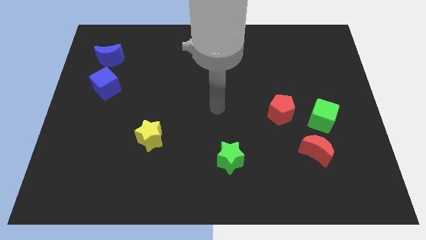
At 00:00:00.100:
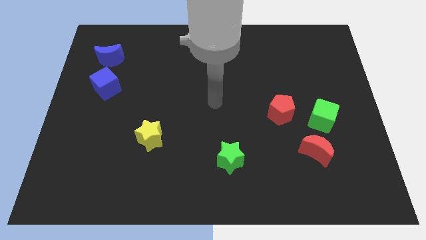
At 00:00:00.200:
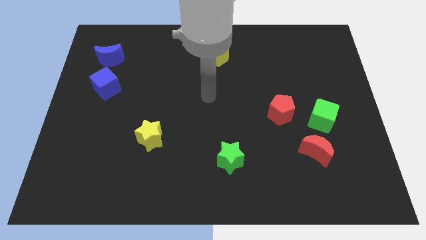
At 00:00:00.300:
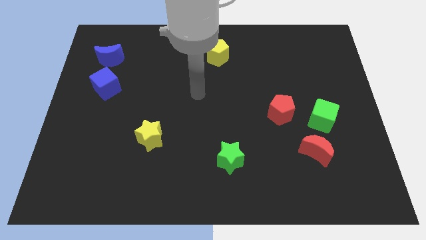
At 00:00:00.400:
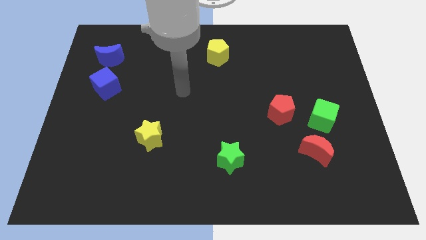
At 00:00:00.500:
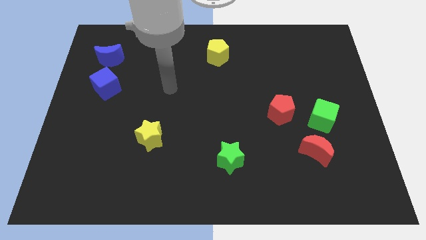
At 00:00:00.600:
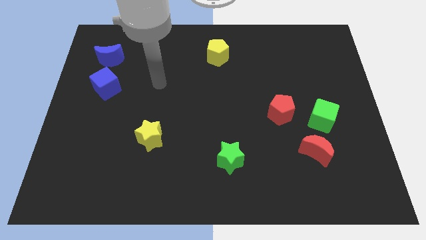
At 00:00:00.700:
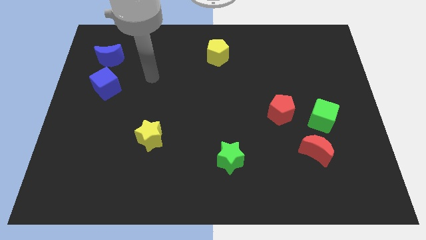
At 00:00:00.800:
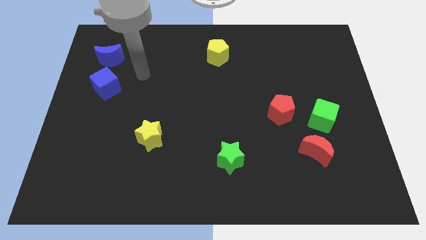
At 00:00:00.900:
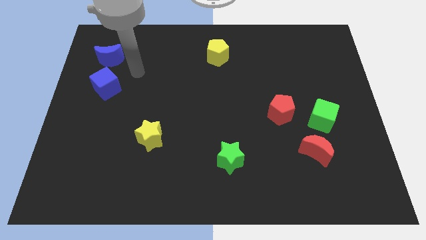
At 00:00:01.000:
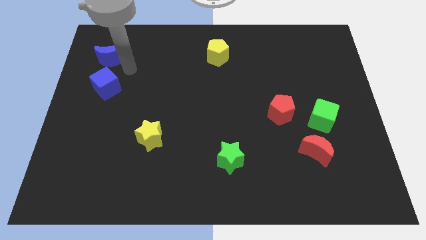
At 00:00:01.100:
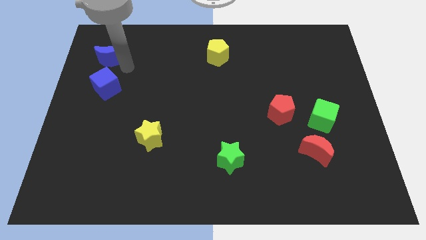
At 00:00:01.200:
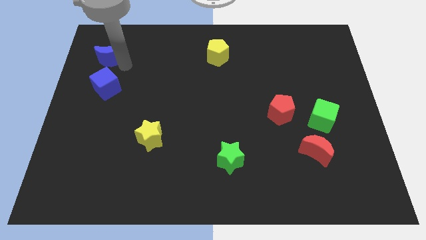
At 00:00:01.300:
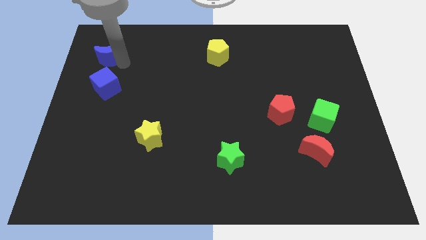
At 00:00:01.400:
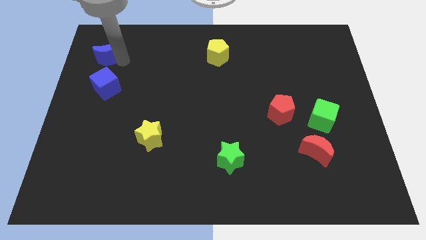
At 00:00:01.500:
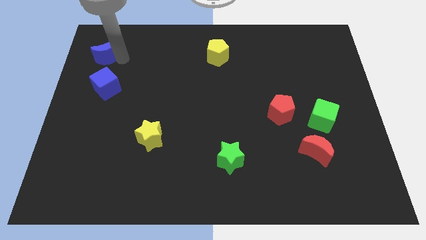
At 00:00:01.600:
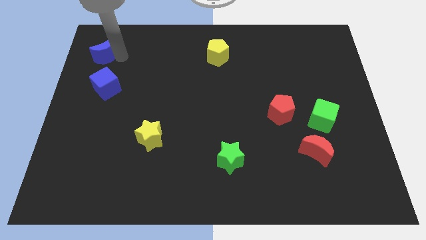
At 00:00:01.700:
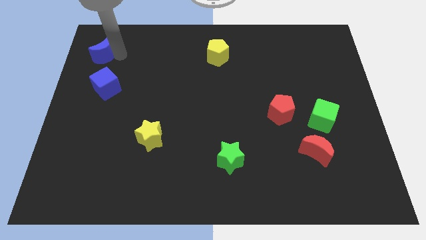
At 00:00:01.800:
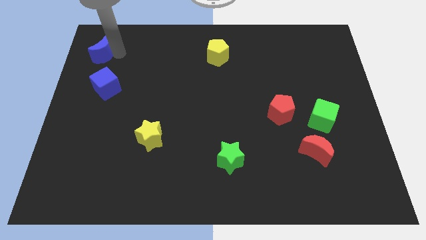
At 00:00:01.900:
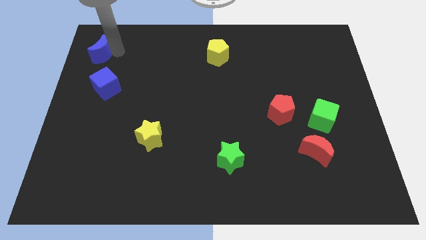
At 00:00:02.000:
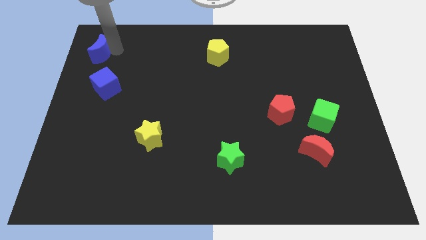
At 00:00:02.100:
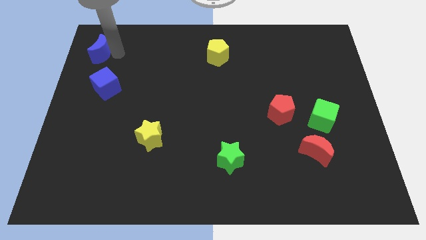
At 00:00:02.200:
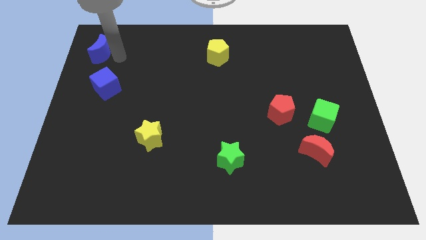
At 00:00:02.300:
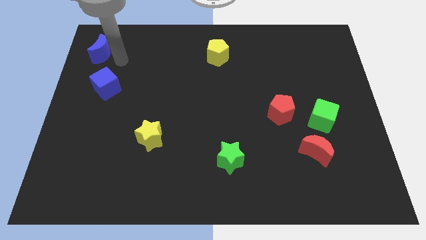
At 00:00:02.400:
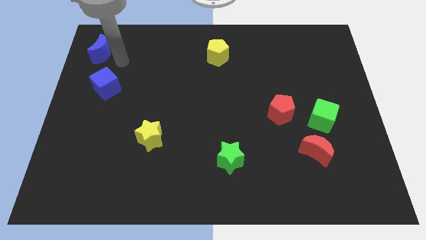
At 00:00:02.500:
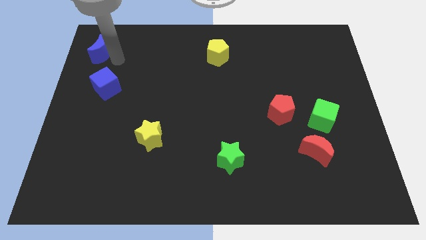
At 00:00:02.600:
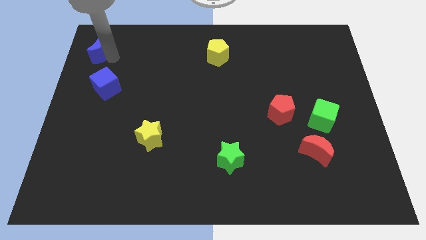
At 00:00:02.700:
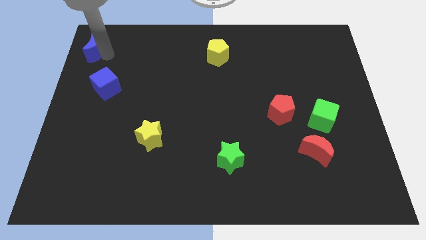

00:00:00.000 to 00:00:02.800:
move the blue moon to the top left

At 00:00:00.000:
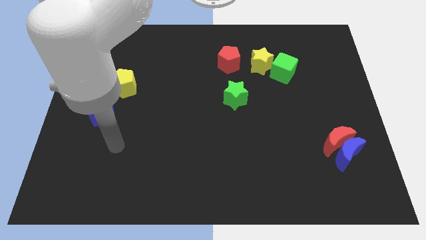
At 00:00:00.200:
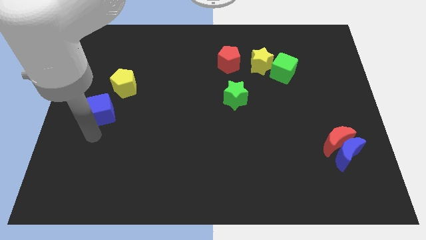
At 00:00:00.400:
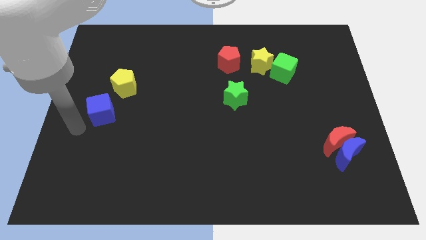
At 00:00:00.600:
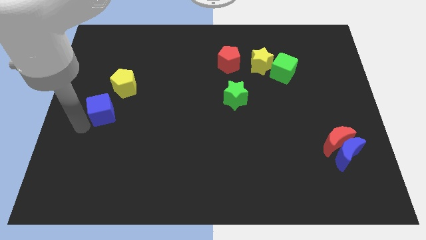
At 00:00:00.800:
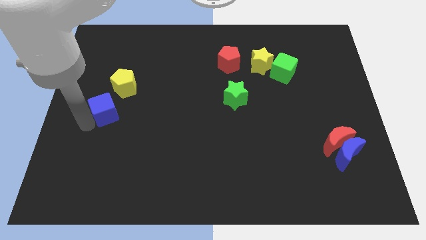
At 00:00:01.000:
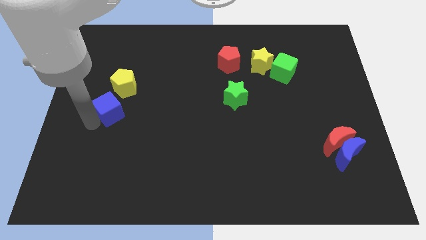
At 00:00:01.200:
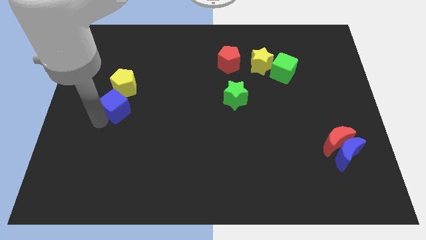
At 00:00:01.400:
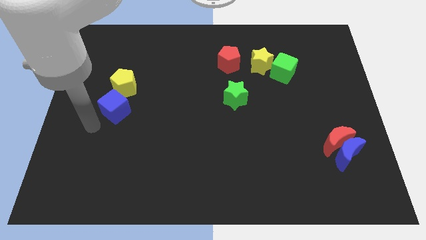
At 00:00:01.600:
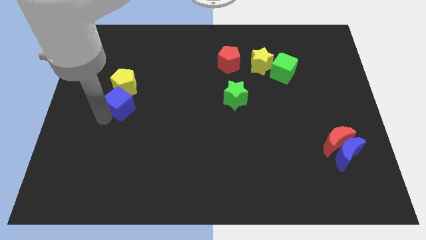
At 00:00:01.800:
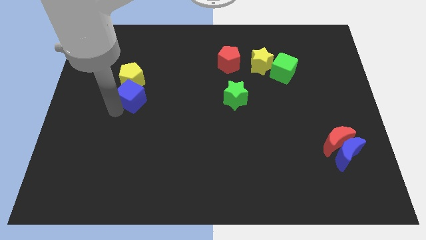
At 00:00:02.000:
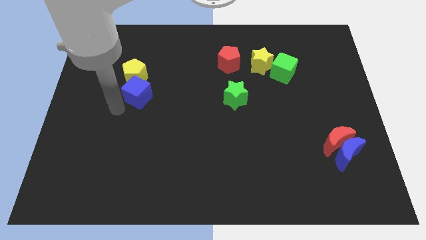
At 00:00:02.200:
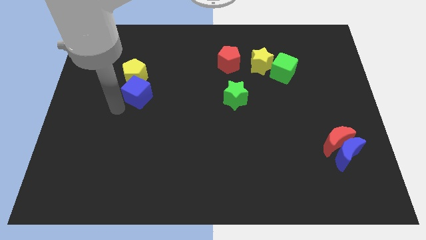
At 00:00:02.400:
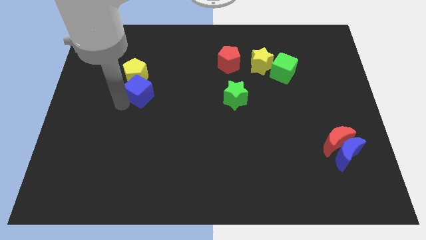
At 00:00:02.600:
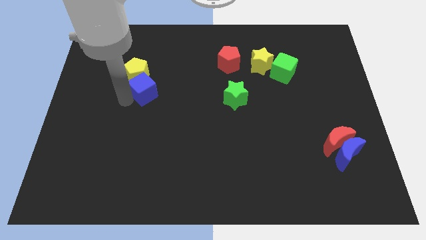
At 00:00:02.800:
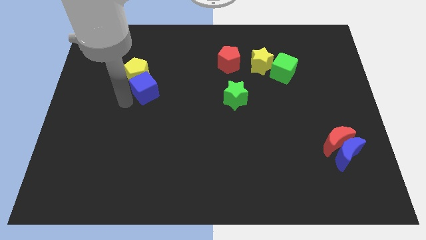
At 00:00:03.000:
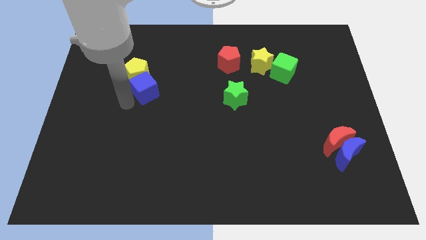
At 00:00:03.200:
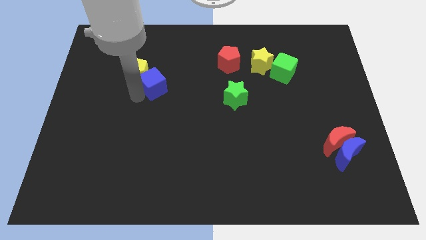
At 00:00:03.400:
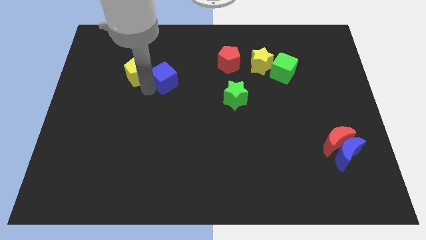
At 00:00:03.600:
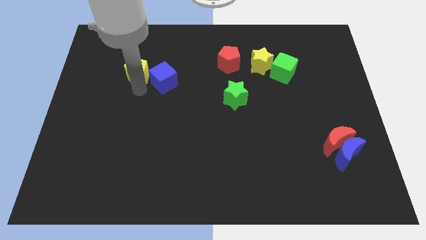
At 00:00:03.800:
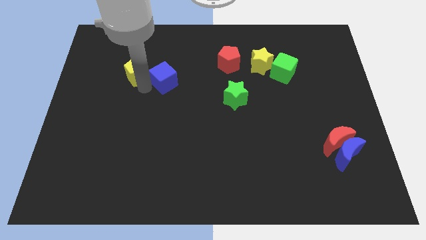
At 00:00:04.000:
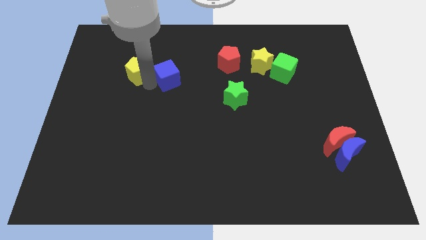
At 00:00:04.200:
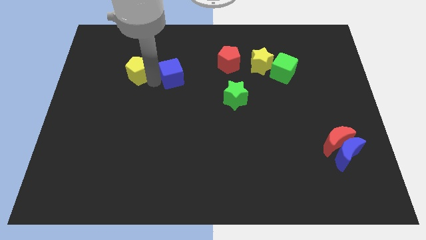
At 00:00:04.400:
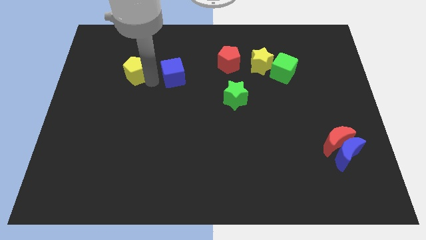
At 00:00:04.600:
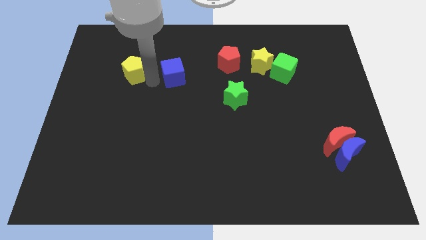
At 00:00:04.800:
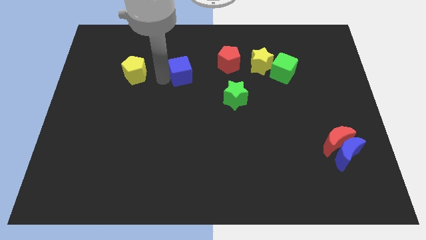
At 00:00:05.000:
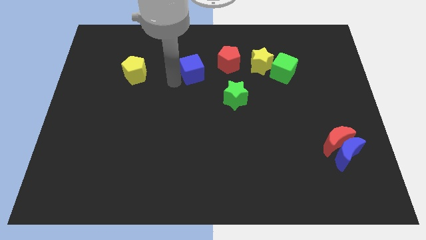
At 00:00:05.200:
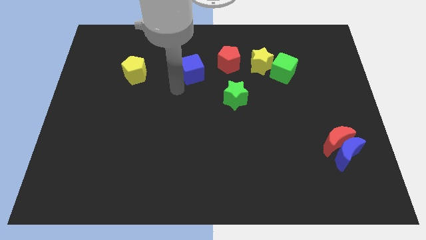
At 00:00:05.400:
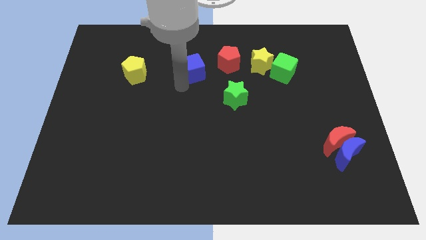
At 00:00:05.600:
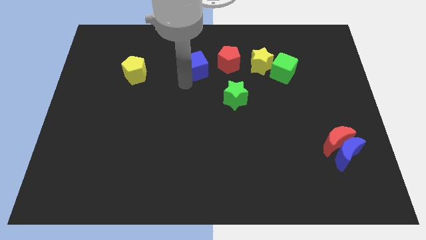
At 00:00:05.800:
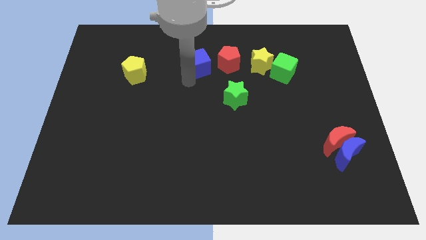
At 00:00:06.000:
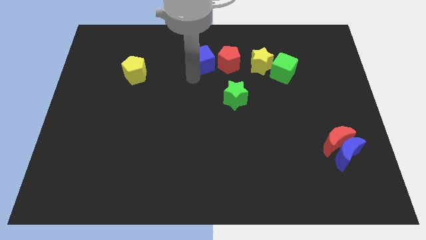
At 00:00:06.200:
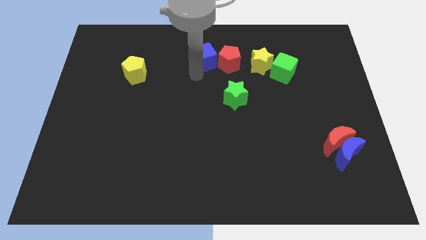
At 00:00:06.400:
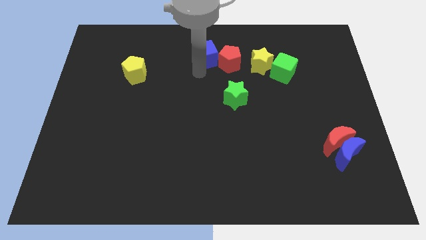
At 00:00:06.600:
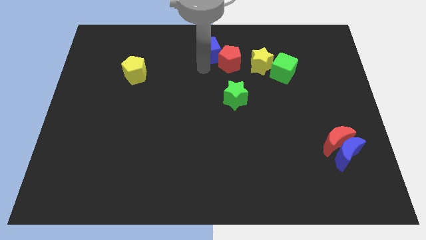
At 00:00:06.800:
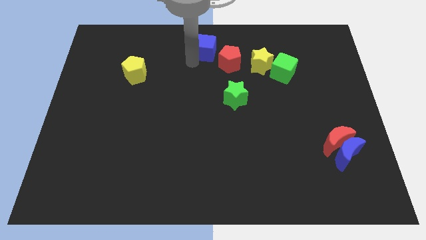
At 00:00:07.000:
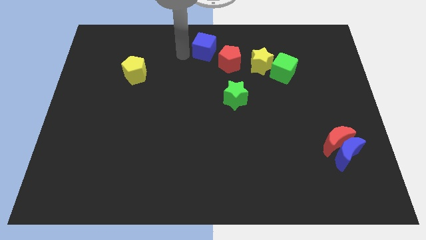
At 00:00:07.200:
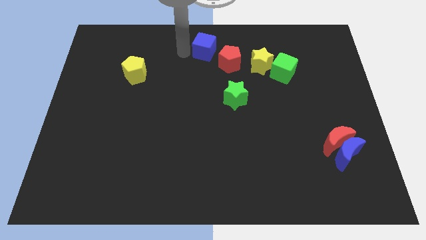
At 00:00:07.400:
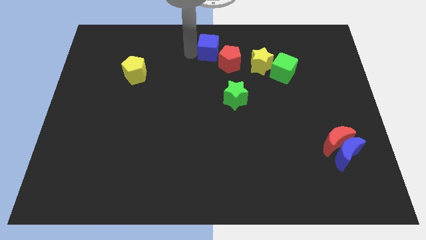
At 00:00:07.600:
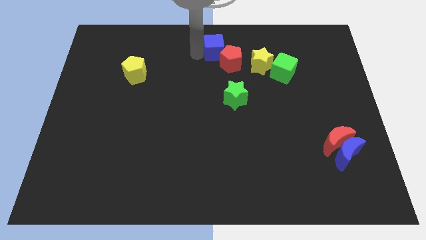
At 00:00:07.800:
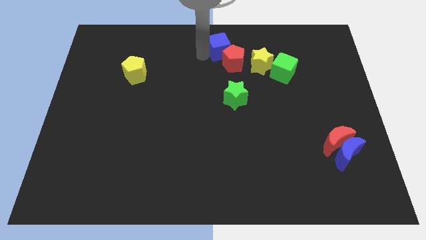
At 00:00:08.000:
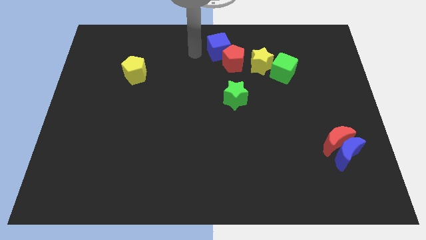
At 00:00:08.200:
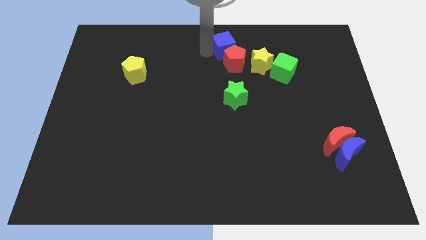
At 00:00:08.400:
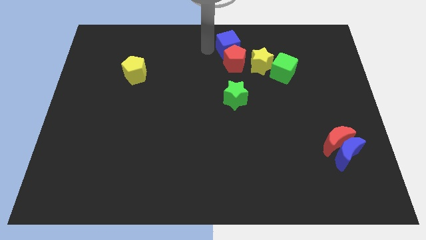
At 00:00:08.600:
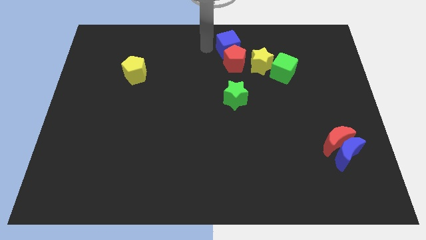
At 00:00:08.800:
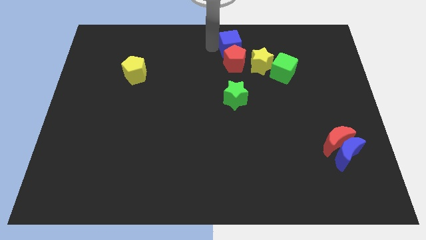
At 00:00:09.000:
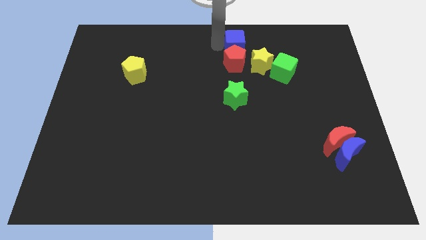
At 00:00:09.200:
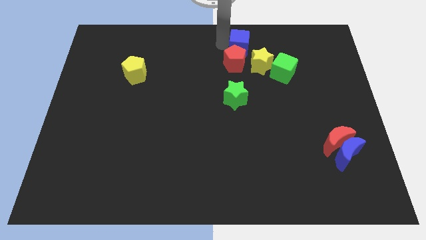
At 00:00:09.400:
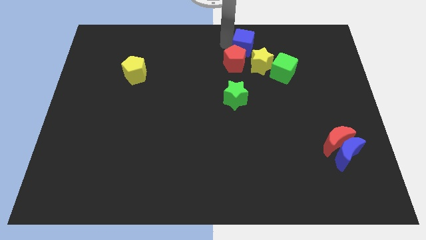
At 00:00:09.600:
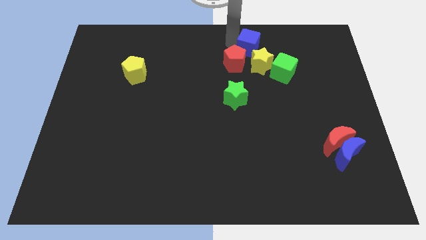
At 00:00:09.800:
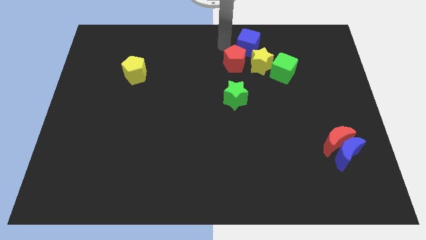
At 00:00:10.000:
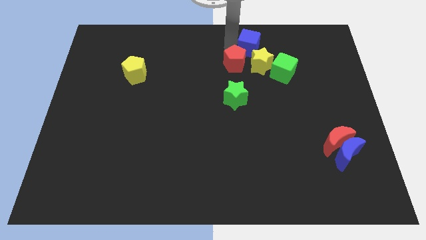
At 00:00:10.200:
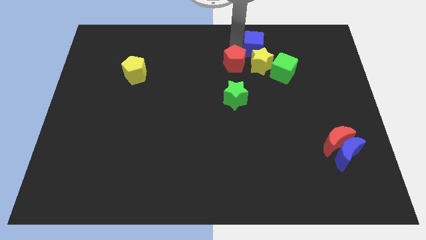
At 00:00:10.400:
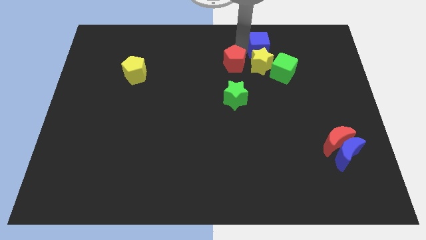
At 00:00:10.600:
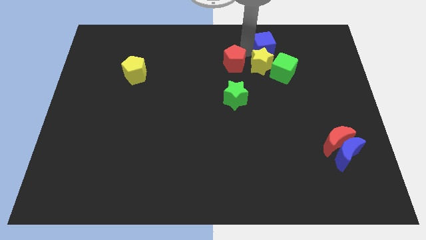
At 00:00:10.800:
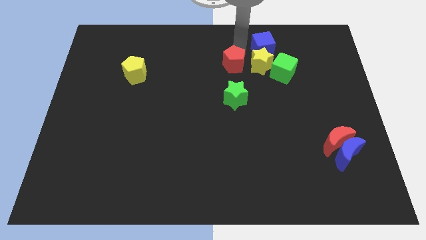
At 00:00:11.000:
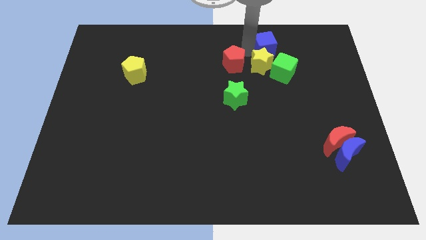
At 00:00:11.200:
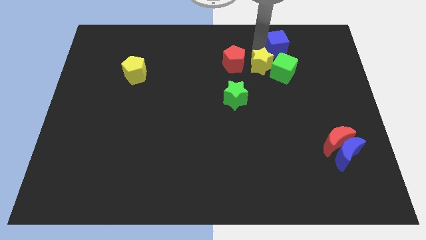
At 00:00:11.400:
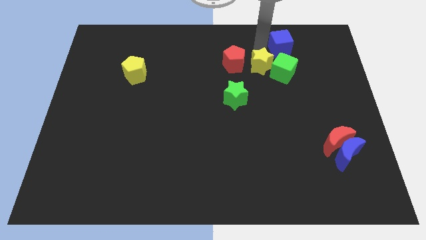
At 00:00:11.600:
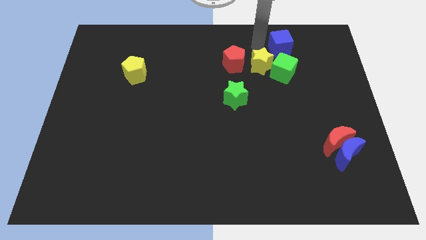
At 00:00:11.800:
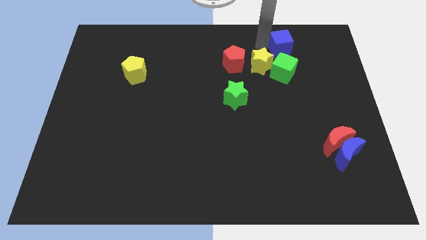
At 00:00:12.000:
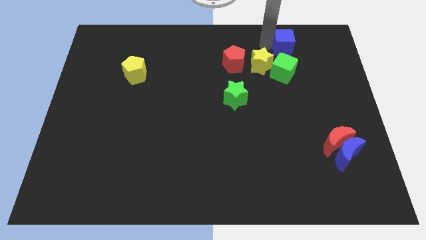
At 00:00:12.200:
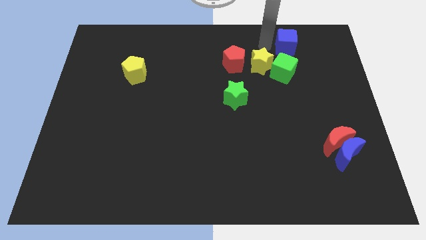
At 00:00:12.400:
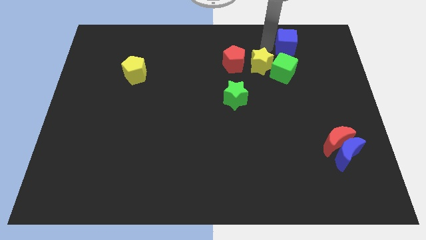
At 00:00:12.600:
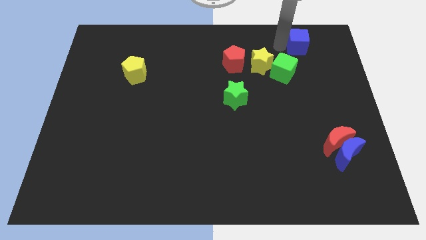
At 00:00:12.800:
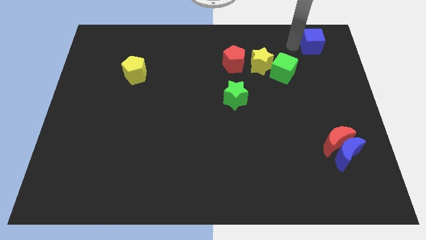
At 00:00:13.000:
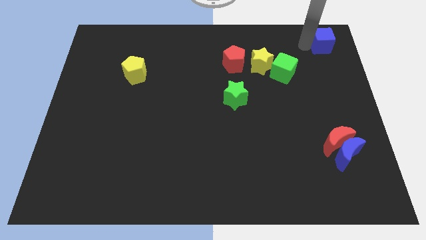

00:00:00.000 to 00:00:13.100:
push the blue cube to the top right of the board
